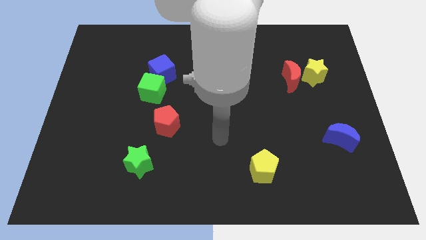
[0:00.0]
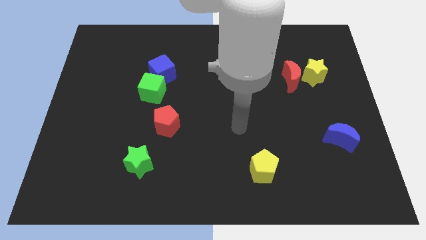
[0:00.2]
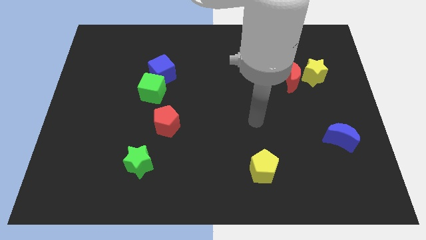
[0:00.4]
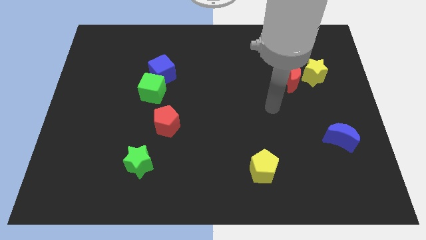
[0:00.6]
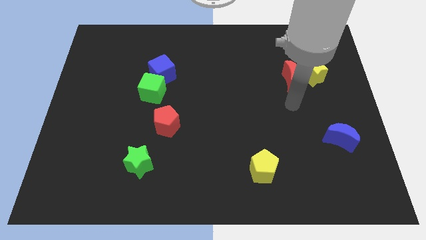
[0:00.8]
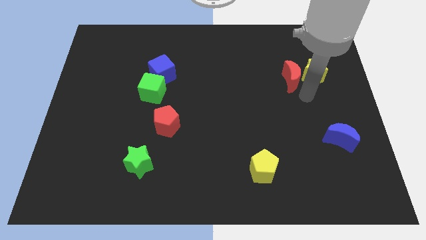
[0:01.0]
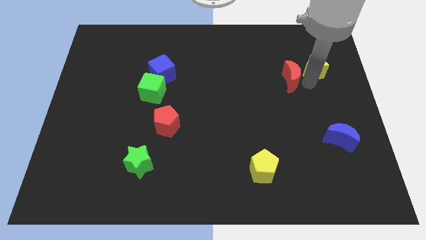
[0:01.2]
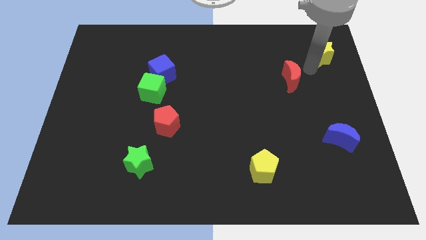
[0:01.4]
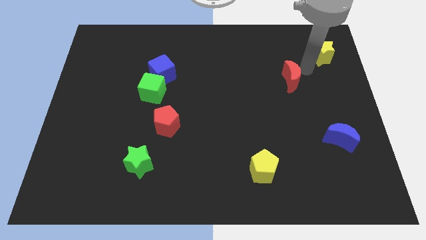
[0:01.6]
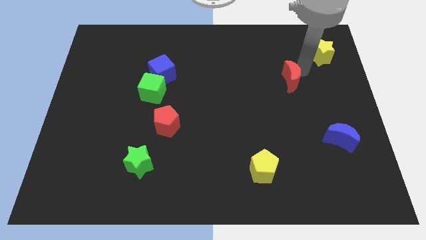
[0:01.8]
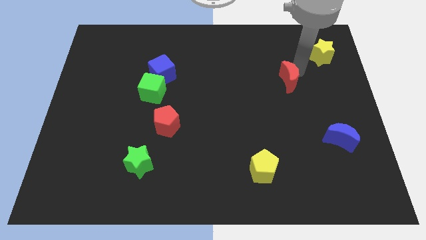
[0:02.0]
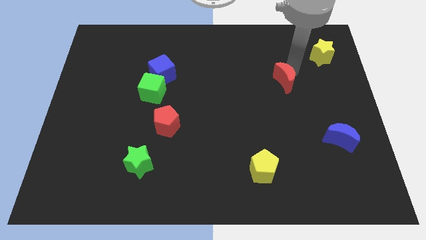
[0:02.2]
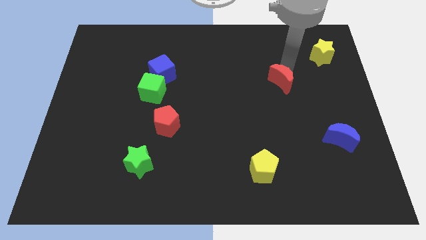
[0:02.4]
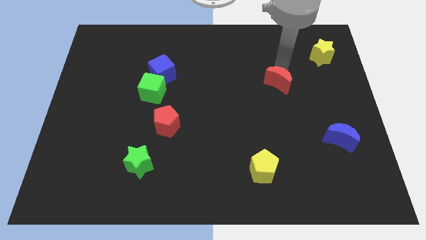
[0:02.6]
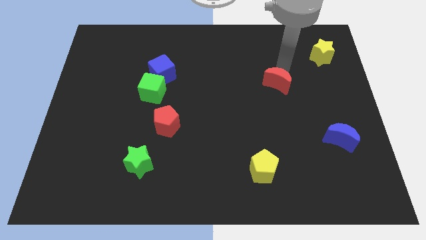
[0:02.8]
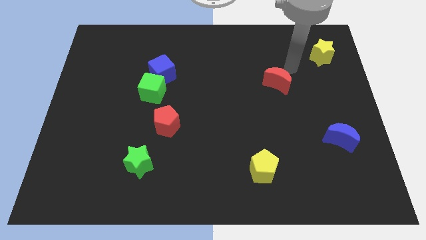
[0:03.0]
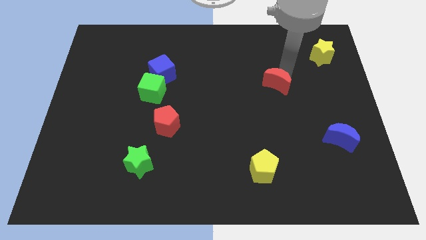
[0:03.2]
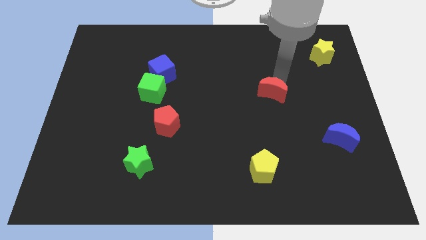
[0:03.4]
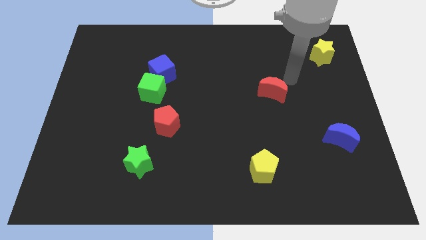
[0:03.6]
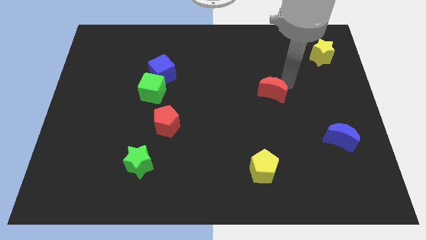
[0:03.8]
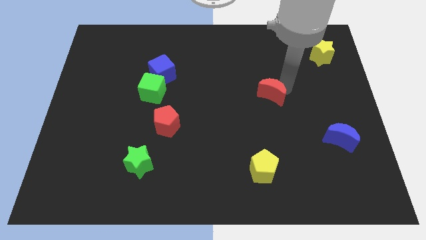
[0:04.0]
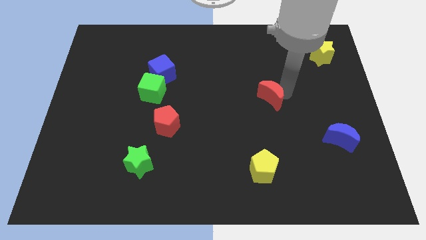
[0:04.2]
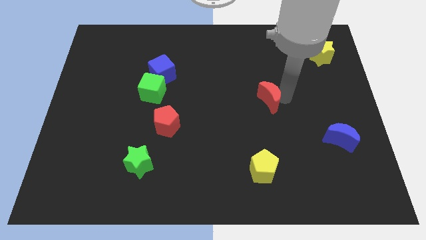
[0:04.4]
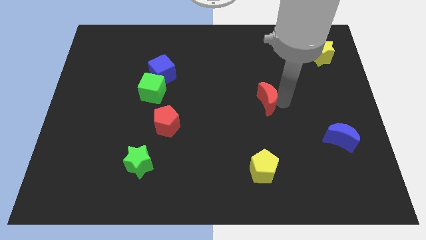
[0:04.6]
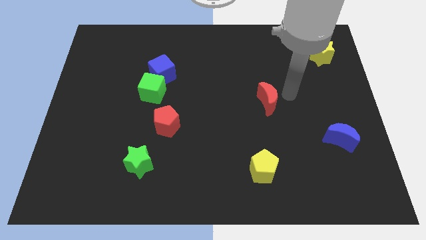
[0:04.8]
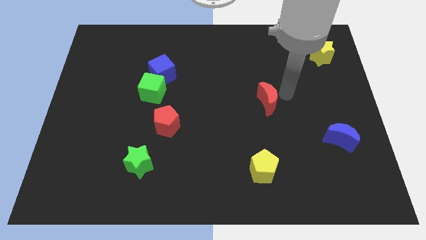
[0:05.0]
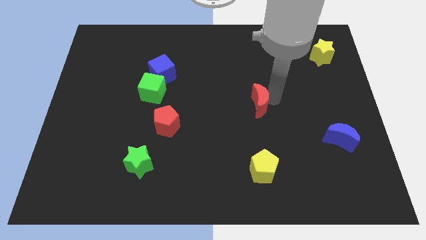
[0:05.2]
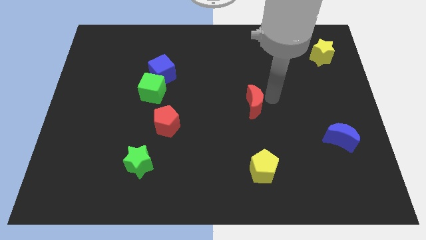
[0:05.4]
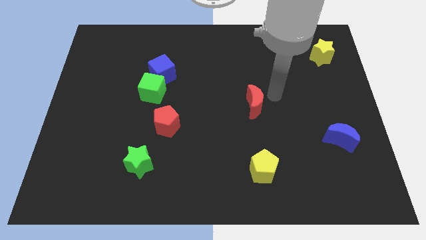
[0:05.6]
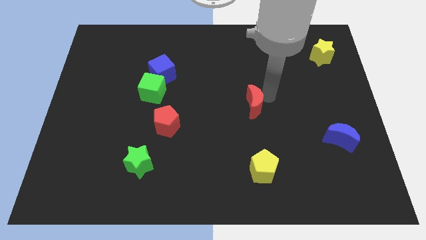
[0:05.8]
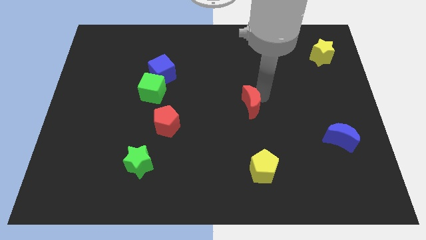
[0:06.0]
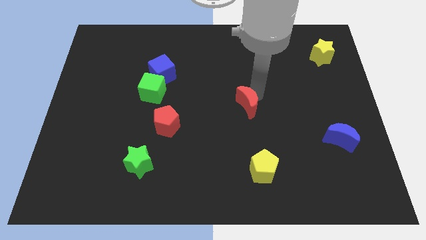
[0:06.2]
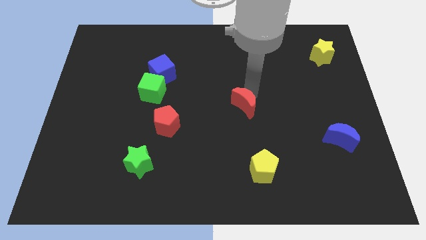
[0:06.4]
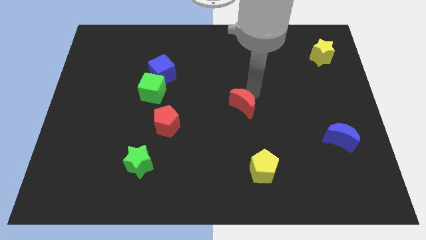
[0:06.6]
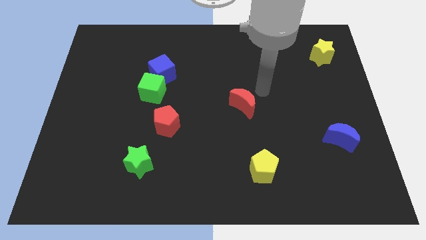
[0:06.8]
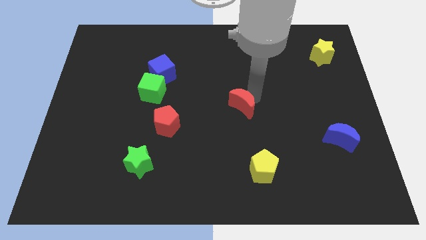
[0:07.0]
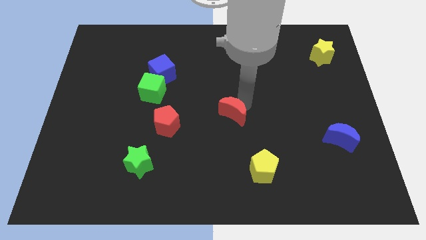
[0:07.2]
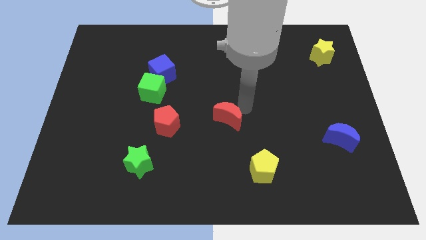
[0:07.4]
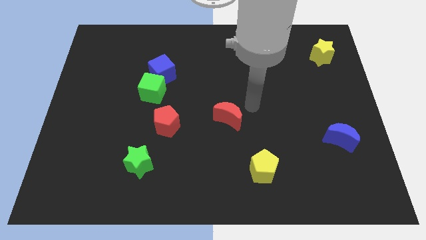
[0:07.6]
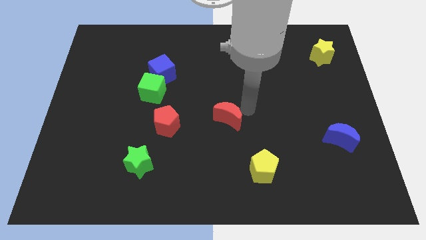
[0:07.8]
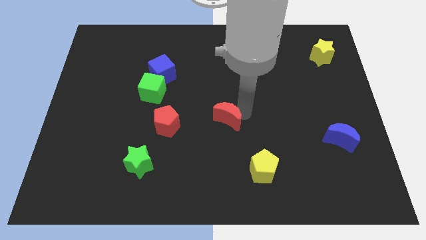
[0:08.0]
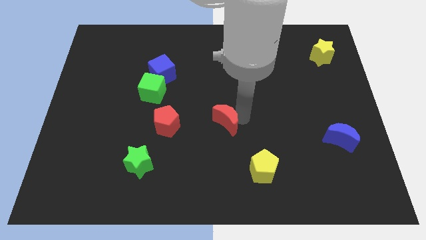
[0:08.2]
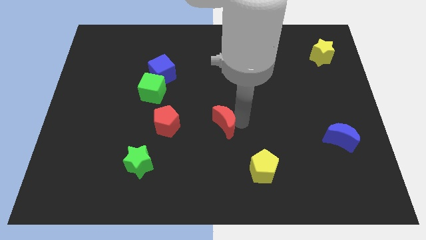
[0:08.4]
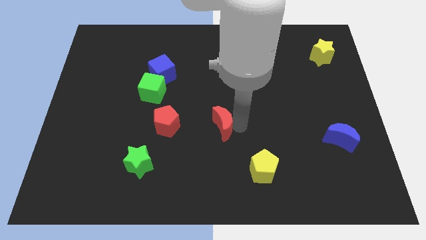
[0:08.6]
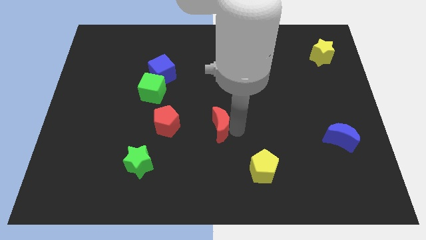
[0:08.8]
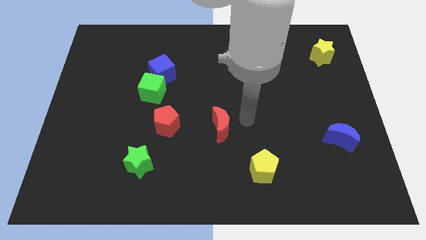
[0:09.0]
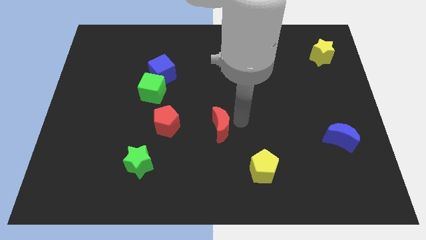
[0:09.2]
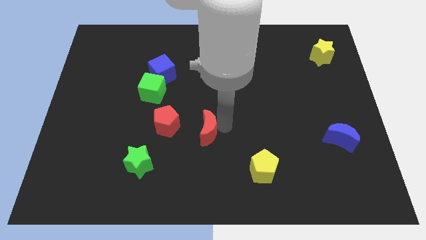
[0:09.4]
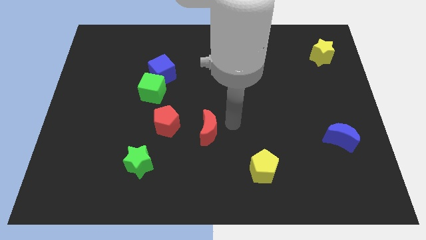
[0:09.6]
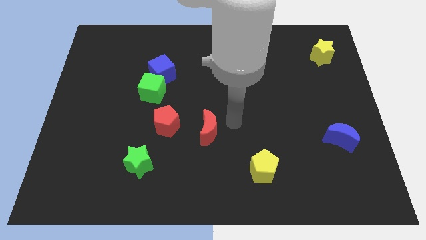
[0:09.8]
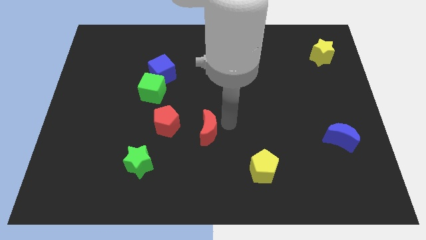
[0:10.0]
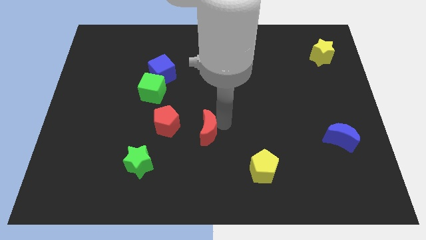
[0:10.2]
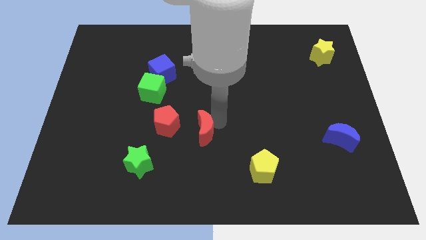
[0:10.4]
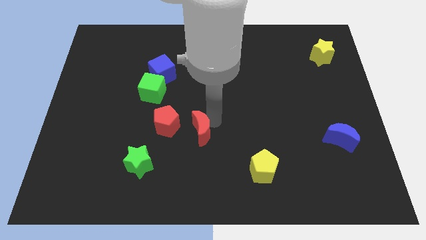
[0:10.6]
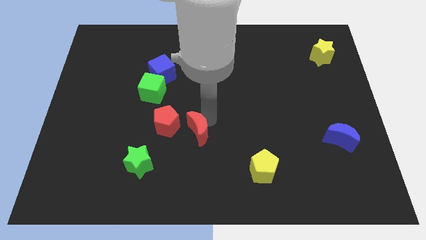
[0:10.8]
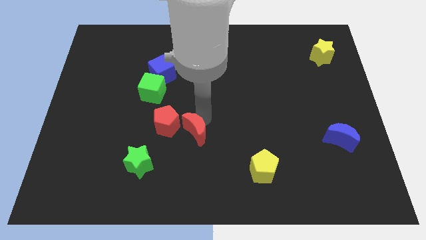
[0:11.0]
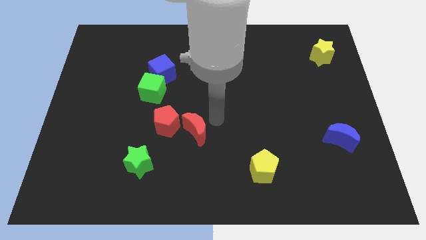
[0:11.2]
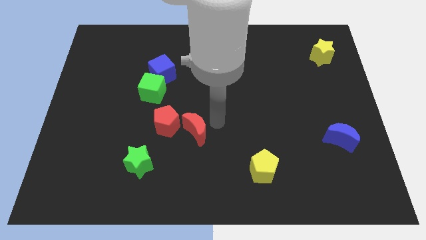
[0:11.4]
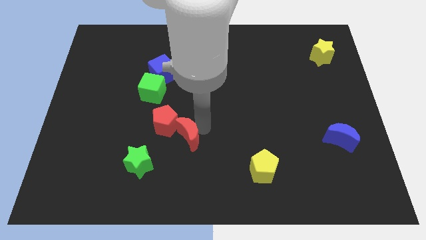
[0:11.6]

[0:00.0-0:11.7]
slide the red moon to the top right of the green star

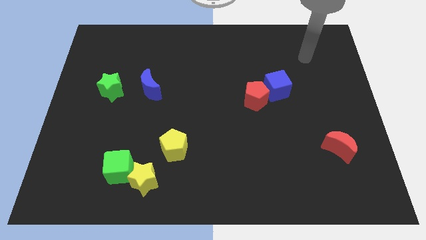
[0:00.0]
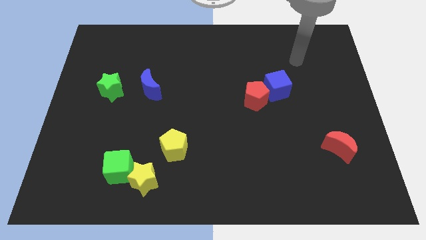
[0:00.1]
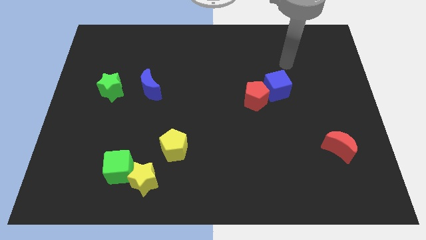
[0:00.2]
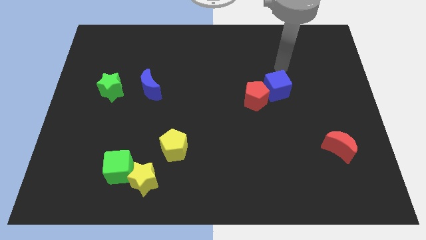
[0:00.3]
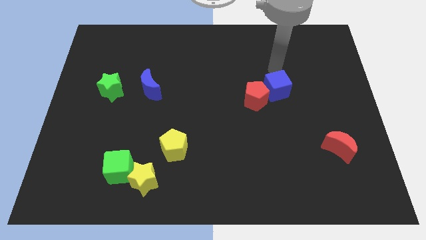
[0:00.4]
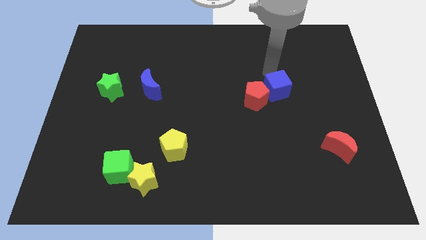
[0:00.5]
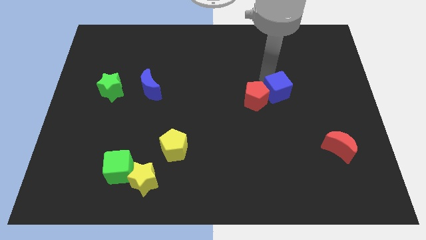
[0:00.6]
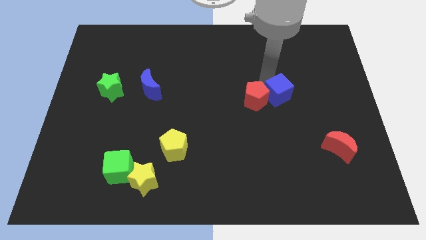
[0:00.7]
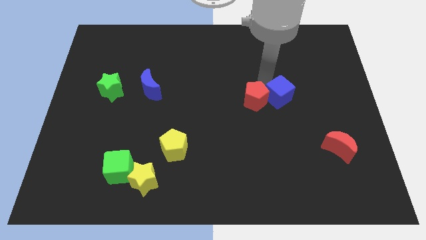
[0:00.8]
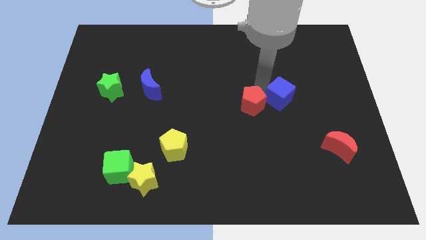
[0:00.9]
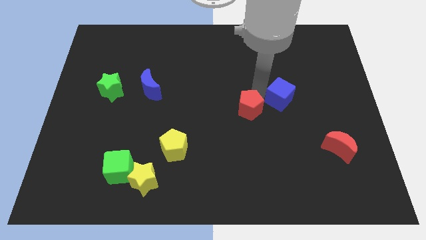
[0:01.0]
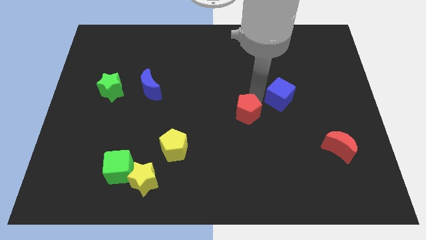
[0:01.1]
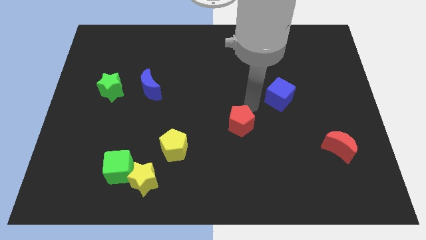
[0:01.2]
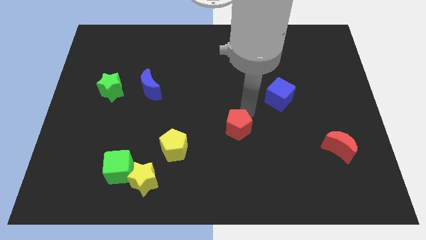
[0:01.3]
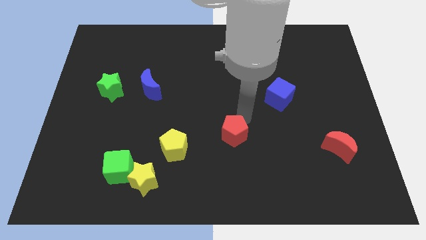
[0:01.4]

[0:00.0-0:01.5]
move the red pentagon right of the yellow pentagon
